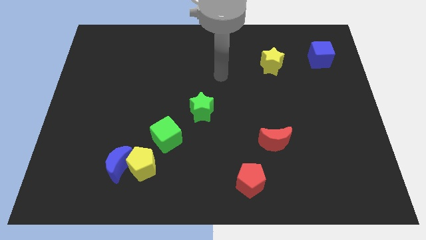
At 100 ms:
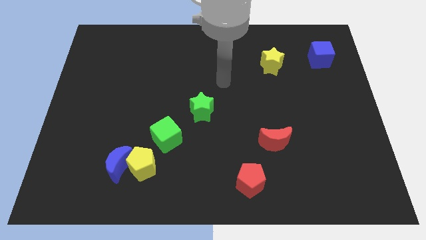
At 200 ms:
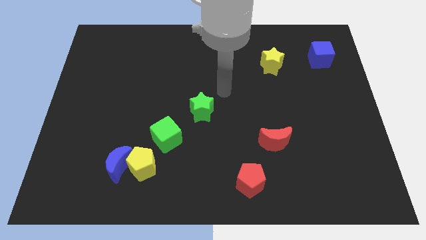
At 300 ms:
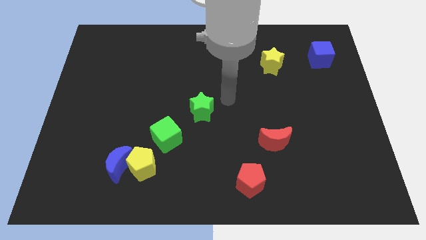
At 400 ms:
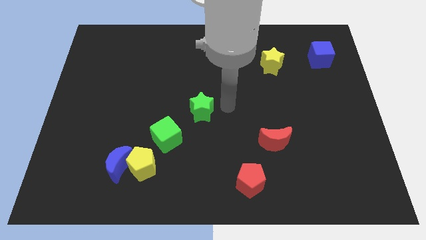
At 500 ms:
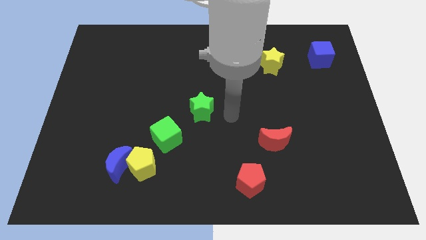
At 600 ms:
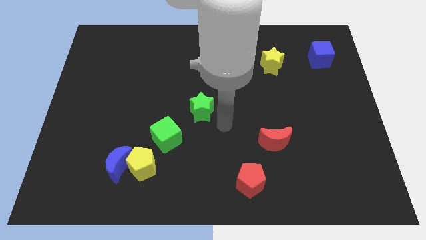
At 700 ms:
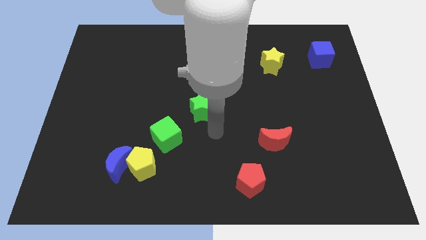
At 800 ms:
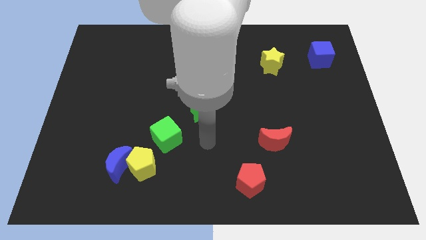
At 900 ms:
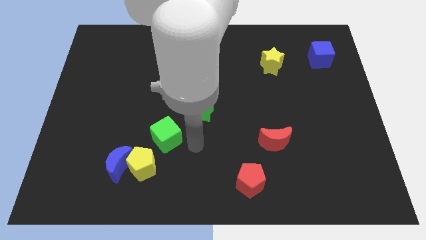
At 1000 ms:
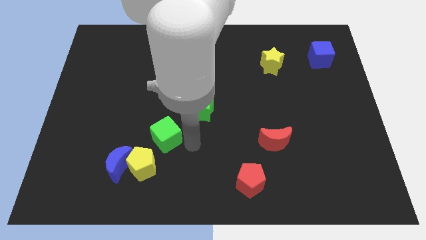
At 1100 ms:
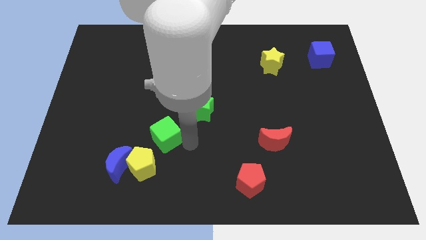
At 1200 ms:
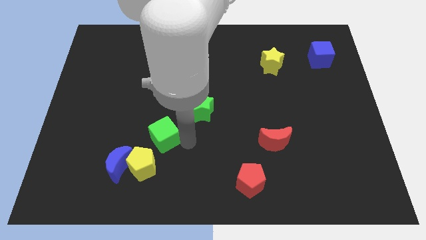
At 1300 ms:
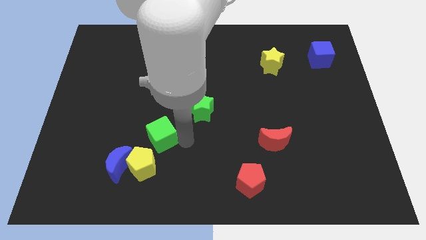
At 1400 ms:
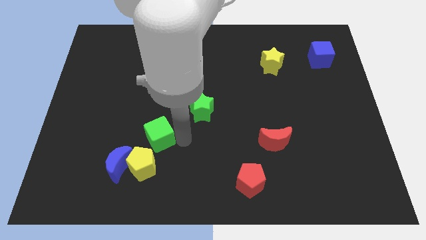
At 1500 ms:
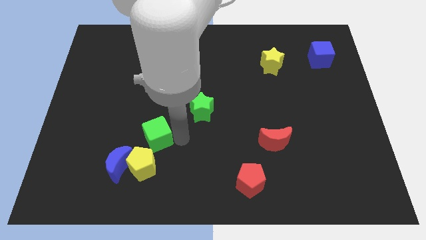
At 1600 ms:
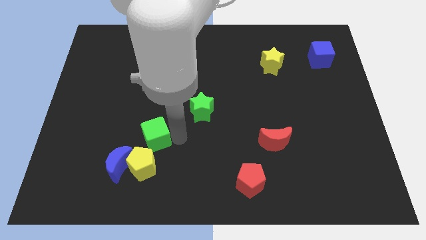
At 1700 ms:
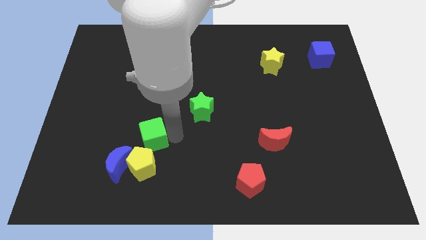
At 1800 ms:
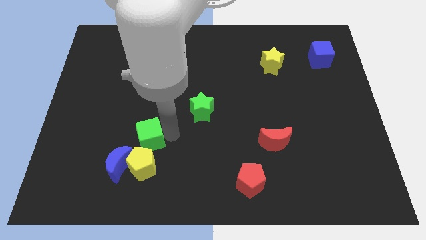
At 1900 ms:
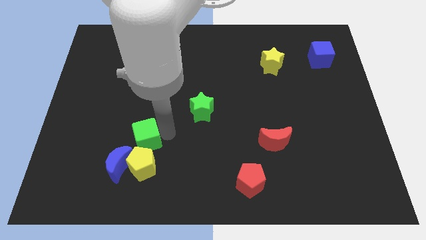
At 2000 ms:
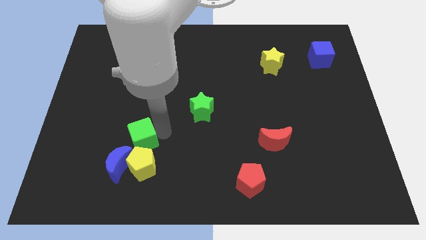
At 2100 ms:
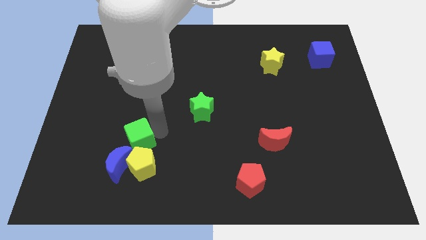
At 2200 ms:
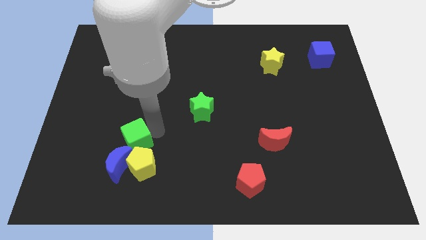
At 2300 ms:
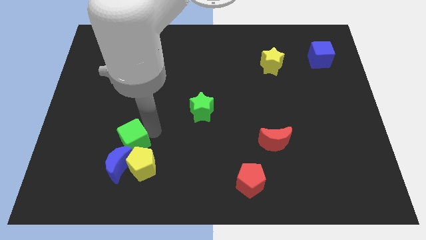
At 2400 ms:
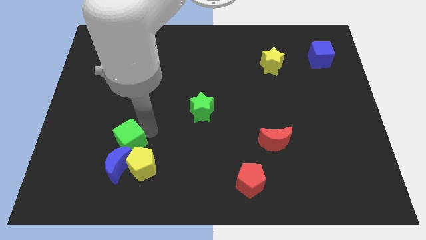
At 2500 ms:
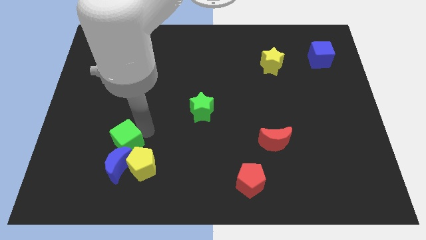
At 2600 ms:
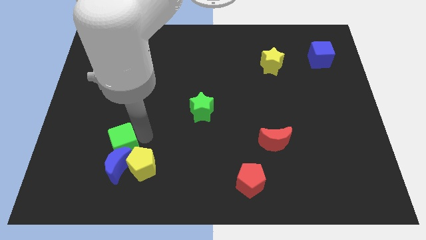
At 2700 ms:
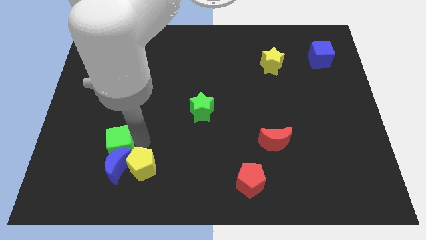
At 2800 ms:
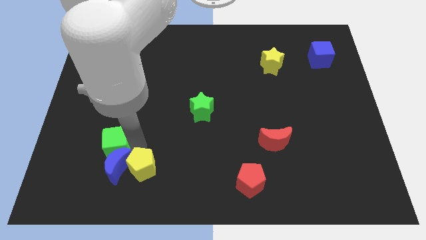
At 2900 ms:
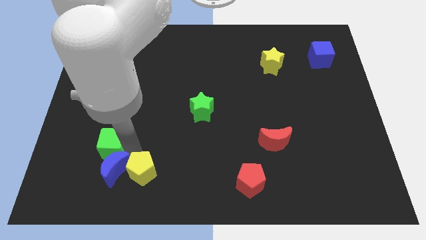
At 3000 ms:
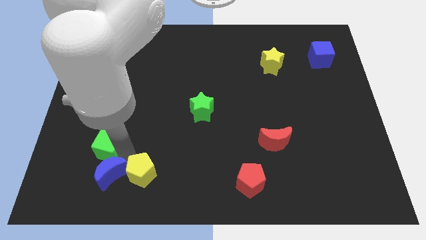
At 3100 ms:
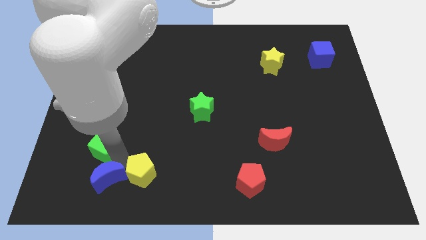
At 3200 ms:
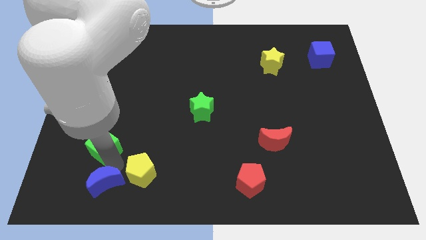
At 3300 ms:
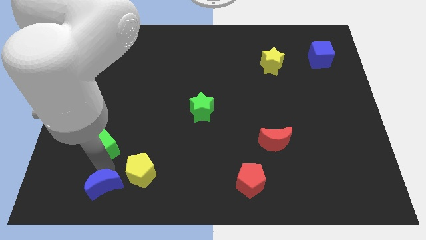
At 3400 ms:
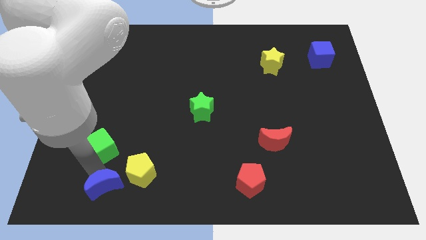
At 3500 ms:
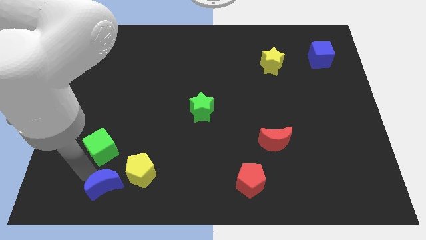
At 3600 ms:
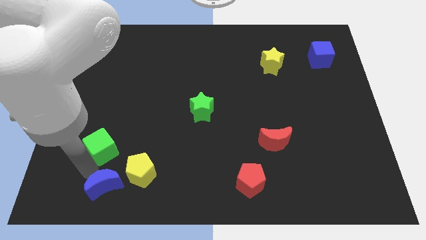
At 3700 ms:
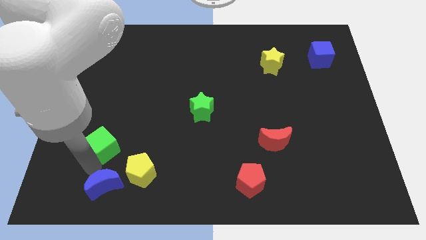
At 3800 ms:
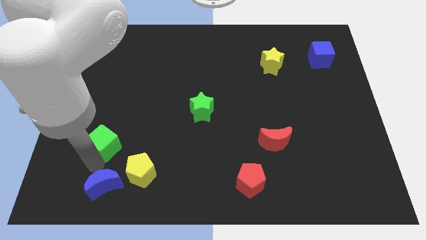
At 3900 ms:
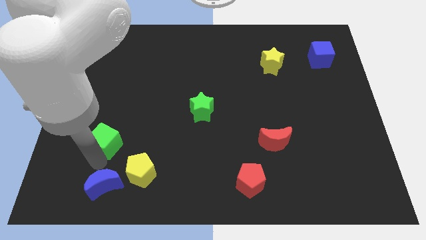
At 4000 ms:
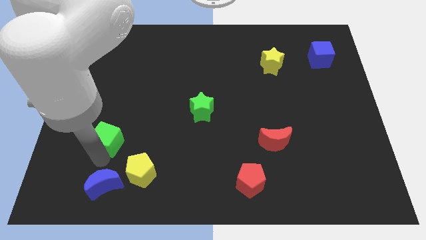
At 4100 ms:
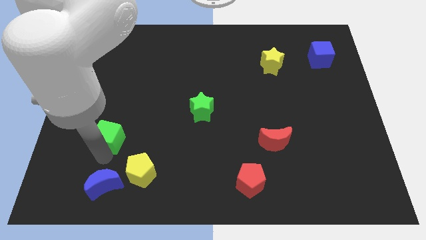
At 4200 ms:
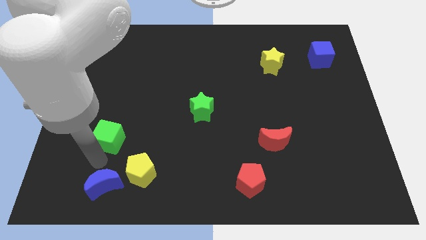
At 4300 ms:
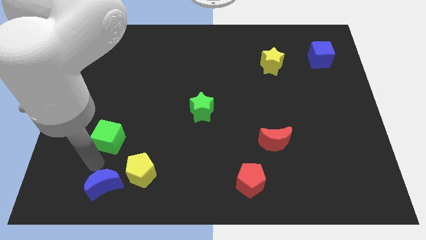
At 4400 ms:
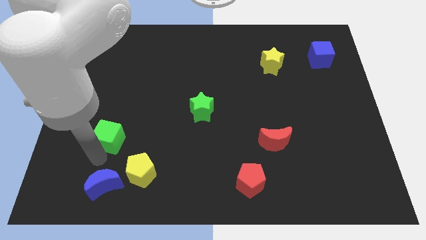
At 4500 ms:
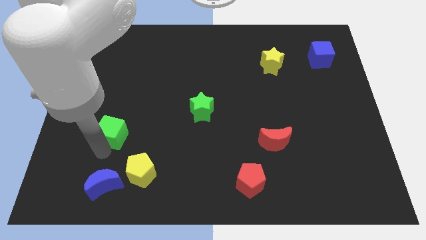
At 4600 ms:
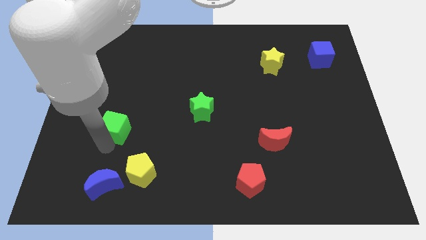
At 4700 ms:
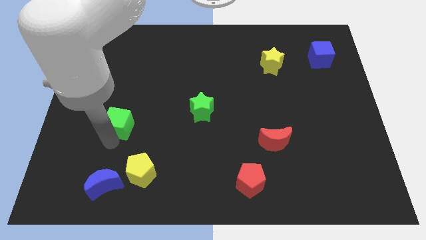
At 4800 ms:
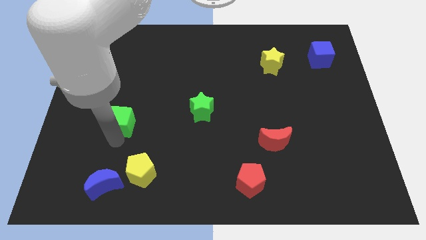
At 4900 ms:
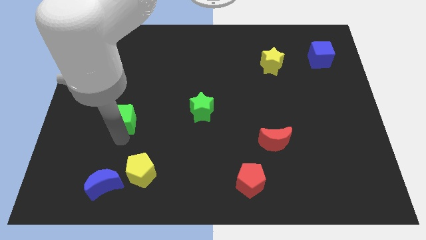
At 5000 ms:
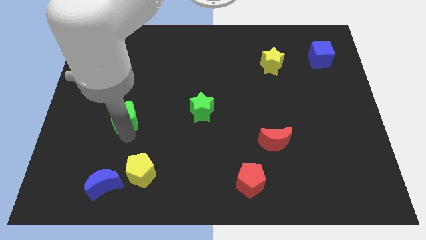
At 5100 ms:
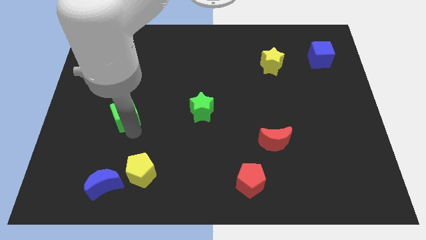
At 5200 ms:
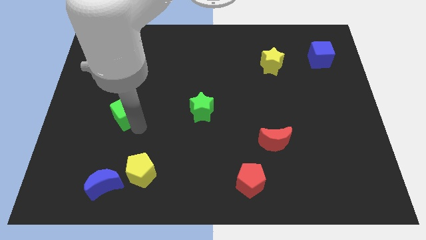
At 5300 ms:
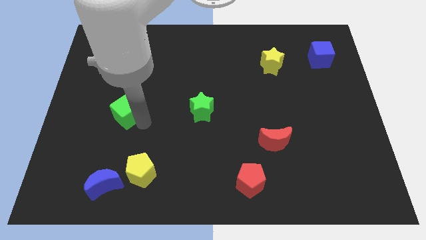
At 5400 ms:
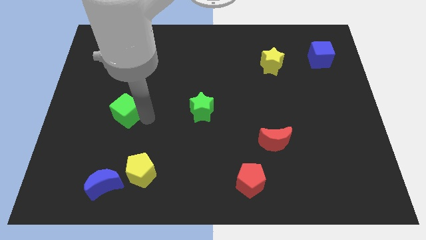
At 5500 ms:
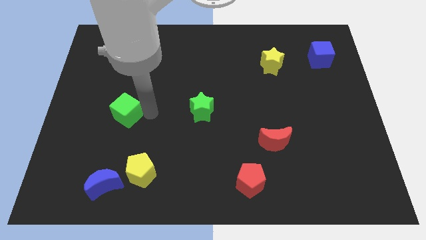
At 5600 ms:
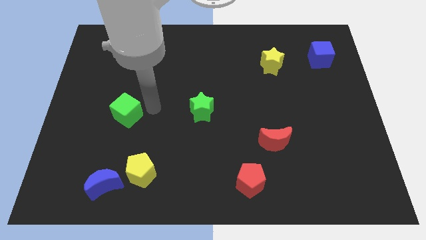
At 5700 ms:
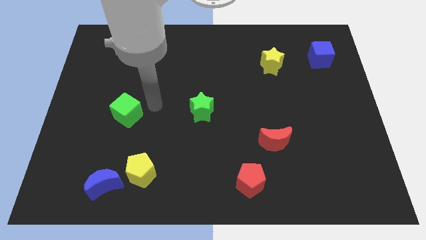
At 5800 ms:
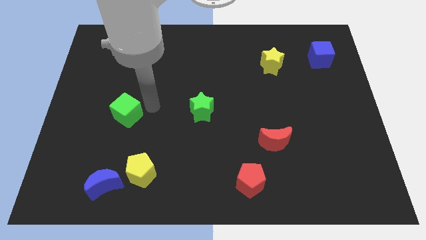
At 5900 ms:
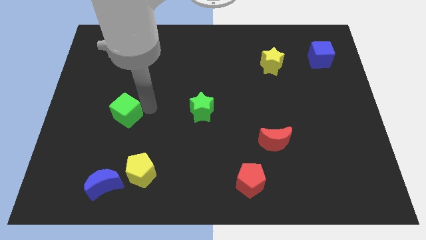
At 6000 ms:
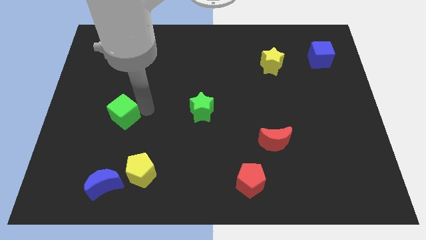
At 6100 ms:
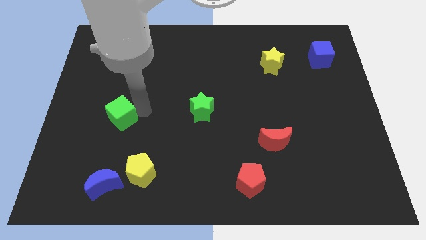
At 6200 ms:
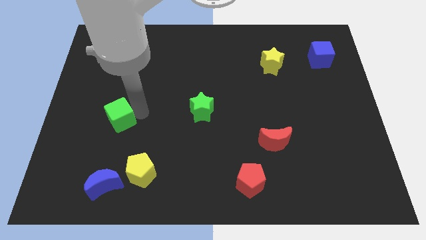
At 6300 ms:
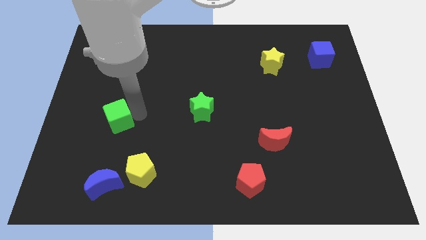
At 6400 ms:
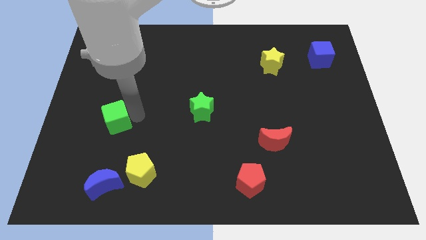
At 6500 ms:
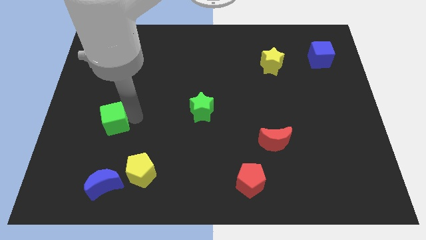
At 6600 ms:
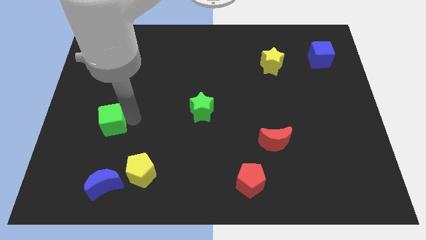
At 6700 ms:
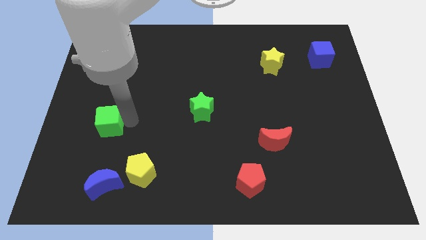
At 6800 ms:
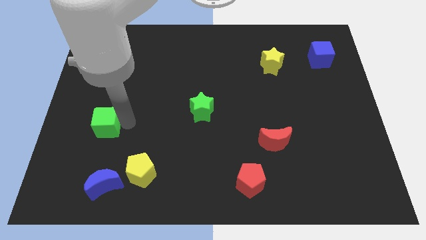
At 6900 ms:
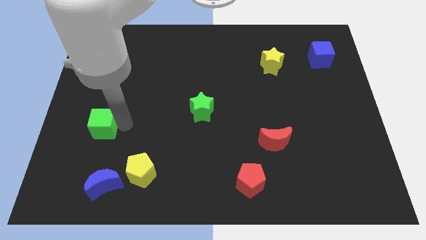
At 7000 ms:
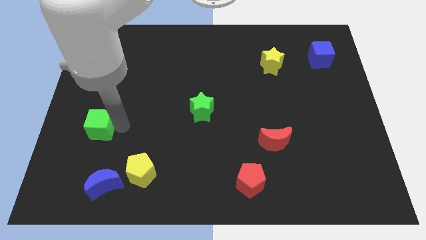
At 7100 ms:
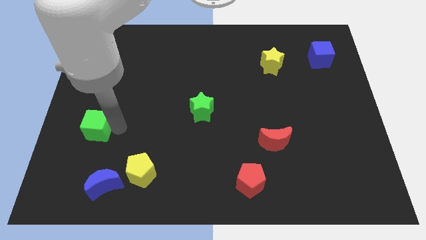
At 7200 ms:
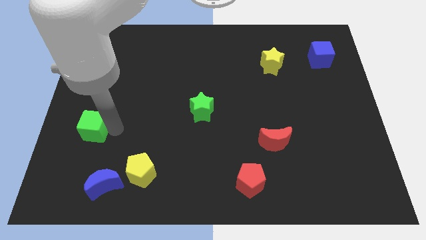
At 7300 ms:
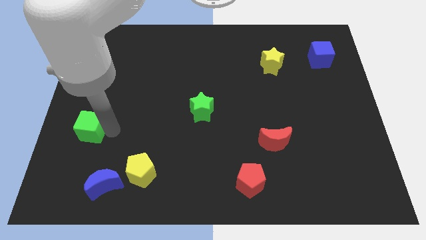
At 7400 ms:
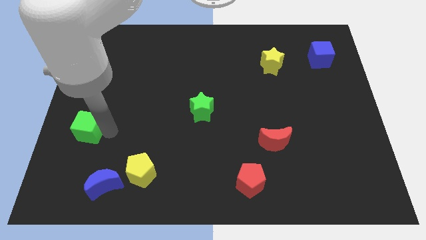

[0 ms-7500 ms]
slide the green cube to the left side of the board
